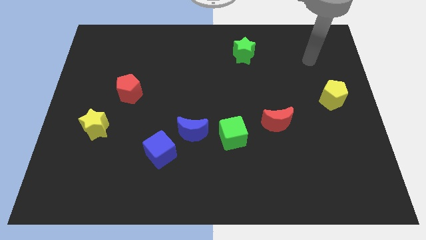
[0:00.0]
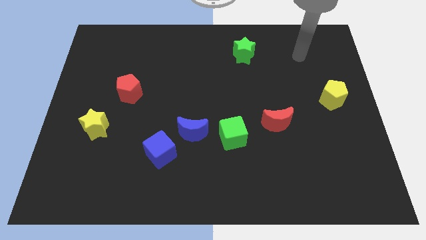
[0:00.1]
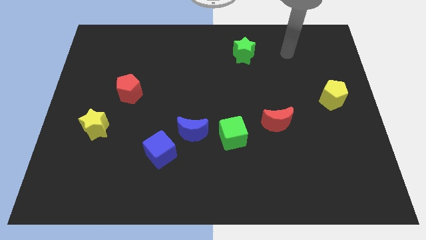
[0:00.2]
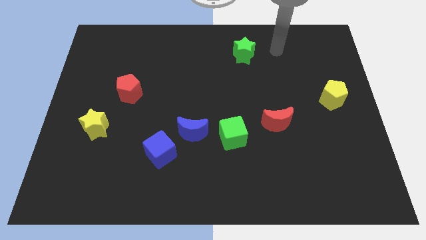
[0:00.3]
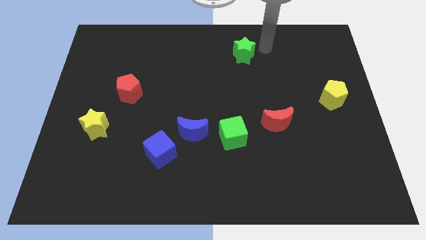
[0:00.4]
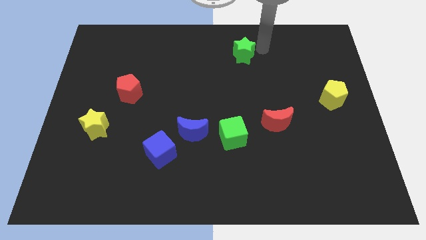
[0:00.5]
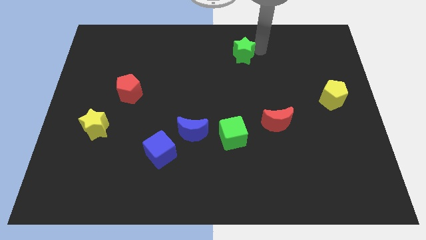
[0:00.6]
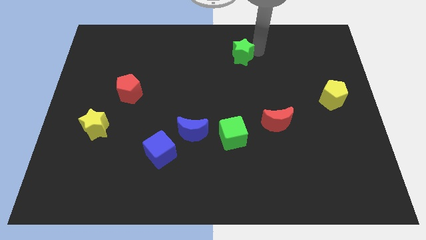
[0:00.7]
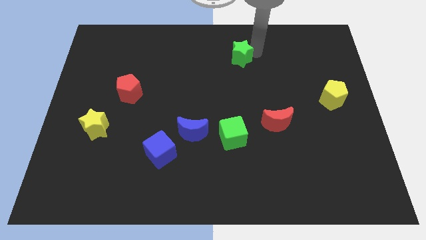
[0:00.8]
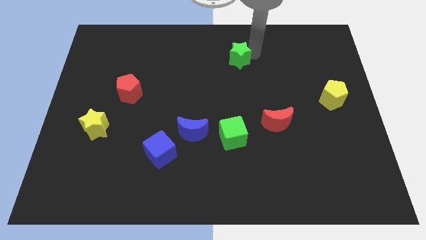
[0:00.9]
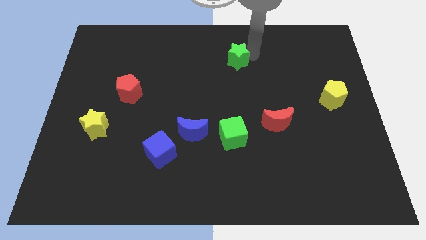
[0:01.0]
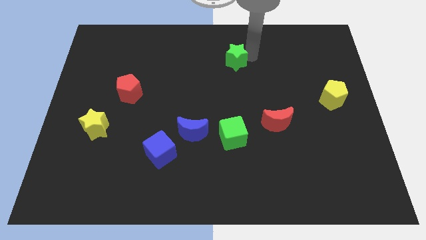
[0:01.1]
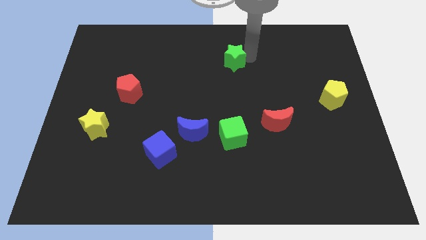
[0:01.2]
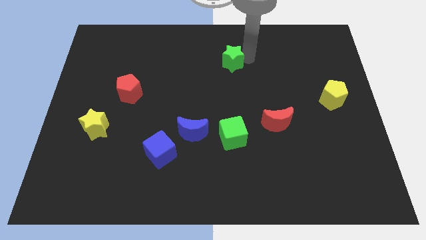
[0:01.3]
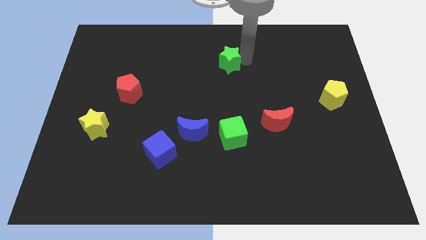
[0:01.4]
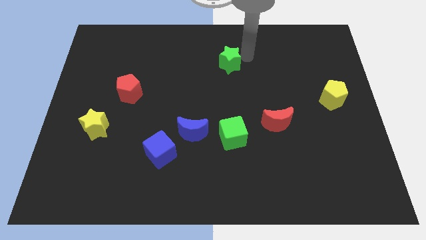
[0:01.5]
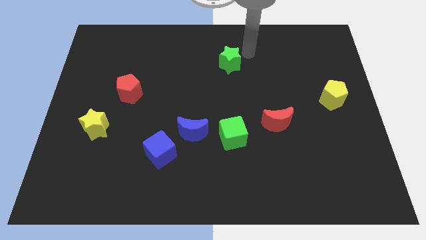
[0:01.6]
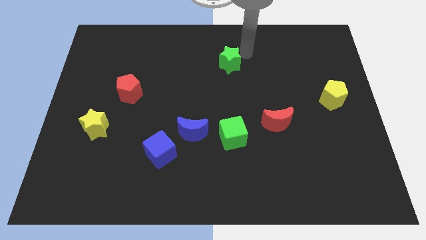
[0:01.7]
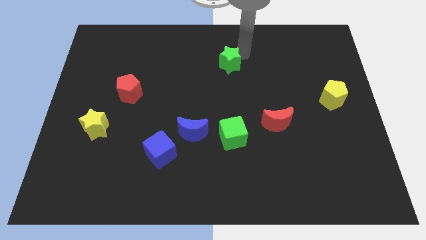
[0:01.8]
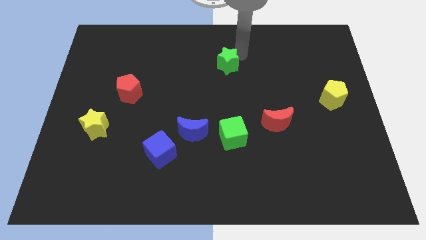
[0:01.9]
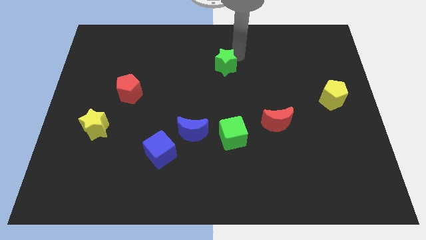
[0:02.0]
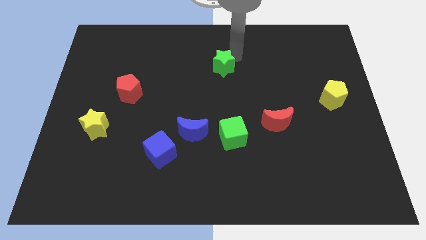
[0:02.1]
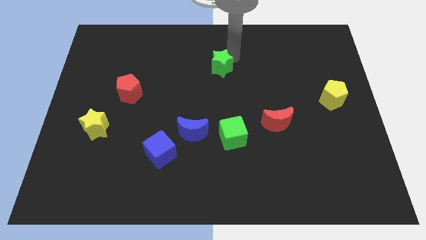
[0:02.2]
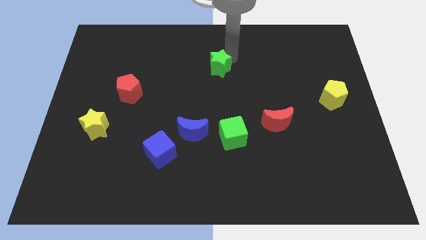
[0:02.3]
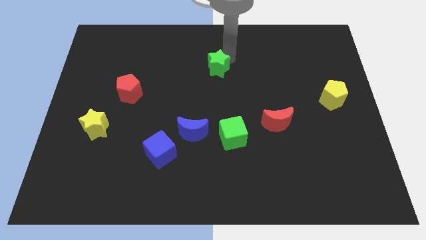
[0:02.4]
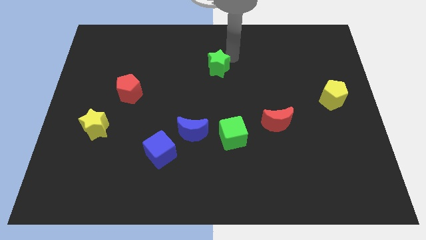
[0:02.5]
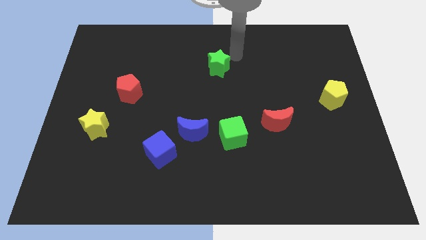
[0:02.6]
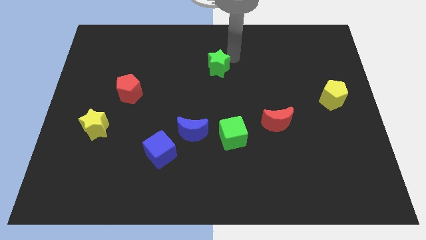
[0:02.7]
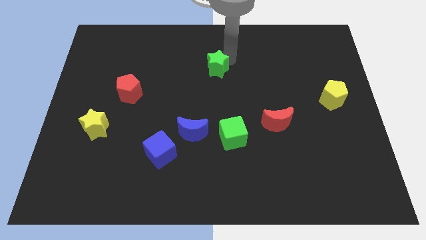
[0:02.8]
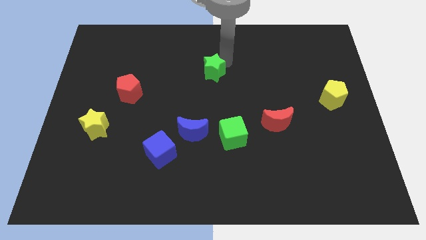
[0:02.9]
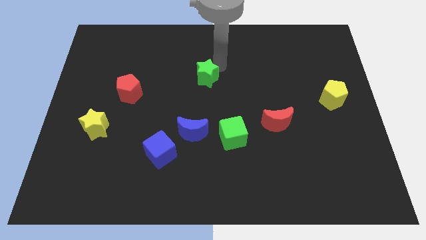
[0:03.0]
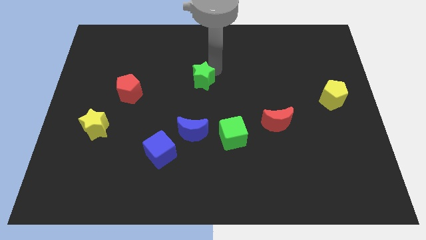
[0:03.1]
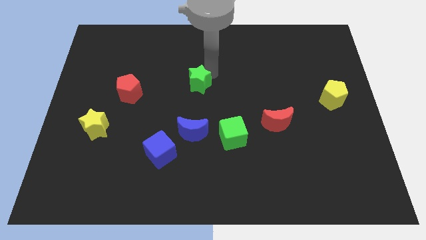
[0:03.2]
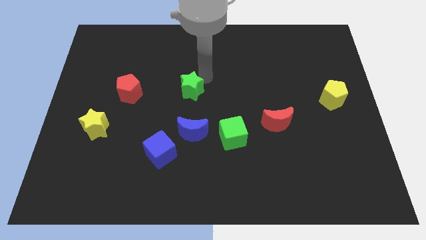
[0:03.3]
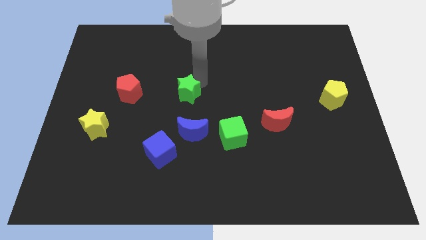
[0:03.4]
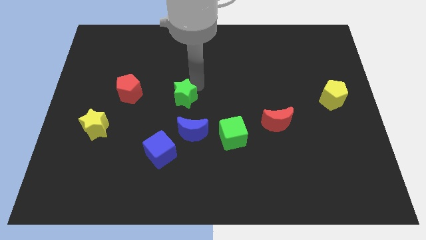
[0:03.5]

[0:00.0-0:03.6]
slide the green star diagonally downwards and to the left

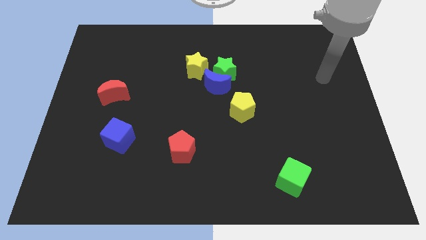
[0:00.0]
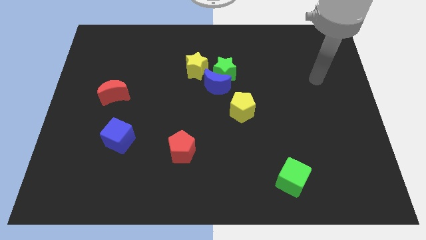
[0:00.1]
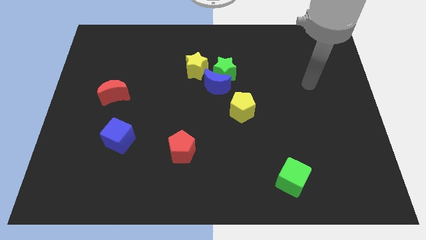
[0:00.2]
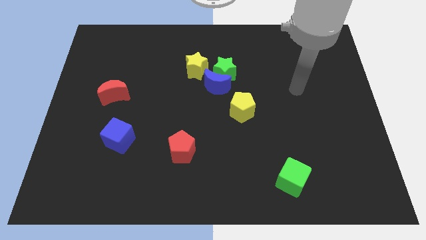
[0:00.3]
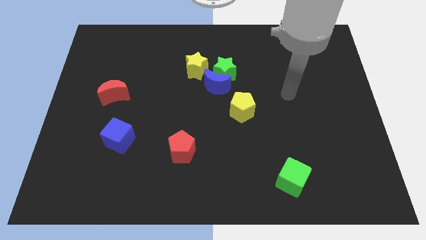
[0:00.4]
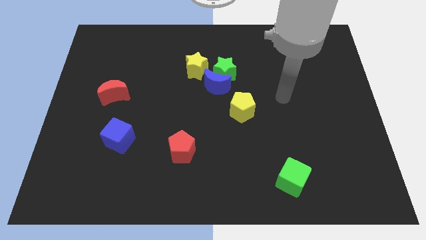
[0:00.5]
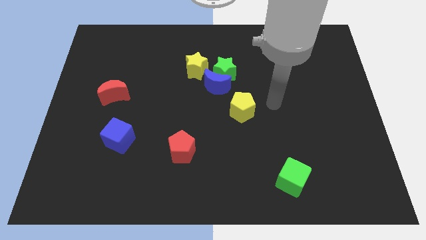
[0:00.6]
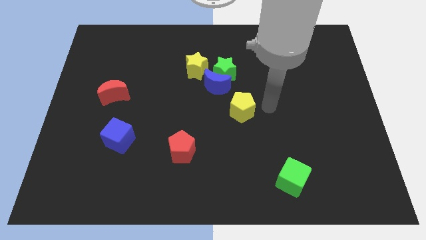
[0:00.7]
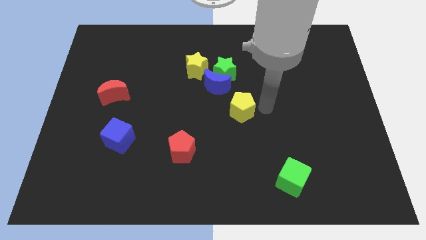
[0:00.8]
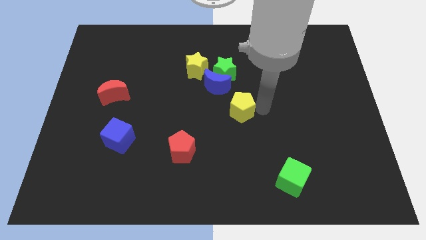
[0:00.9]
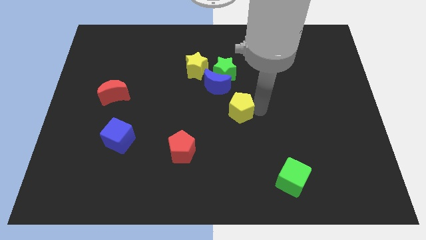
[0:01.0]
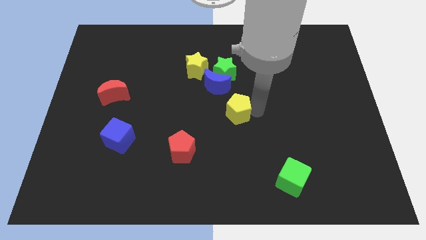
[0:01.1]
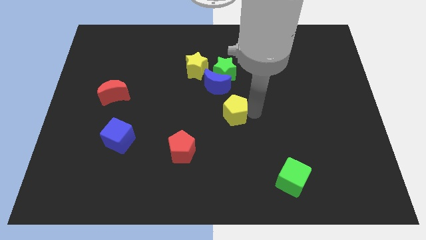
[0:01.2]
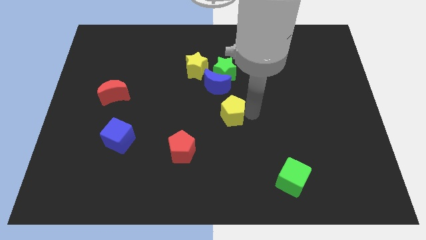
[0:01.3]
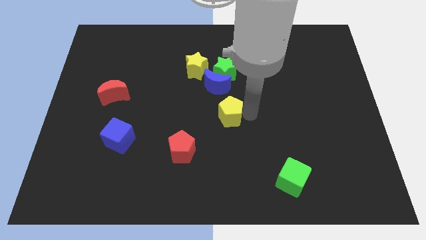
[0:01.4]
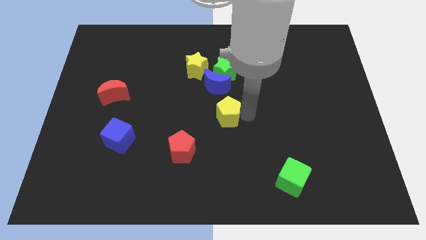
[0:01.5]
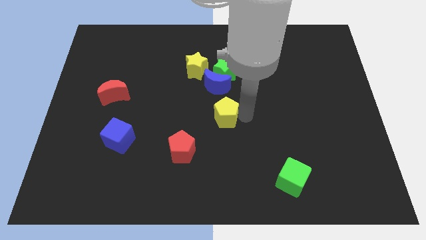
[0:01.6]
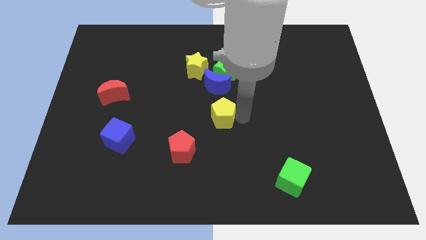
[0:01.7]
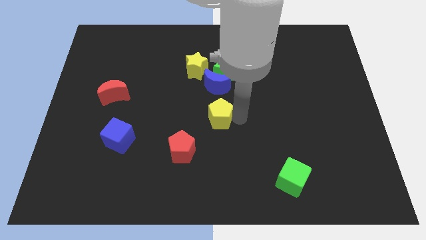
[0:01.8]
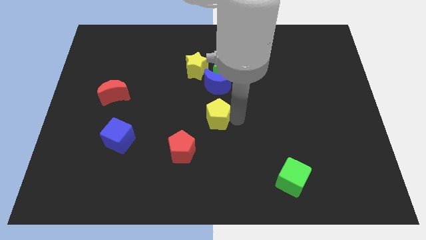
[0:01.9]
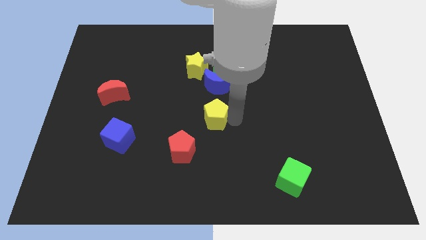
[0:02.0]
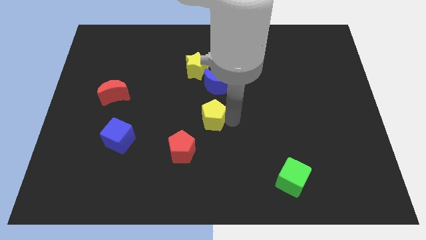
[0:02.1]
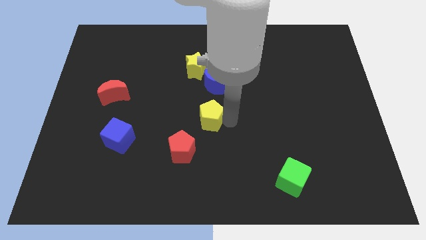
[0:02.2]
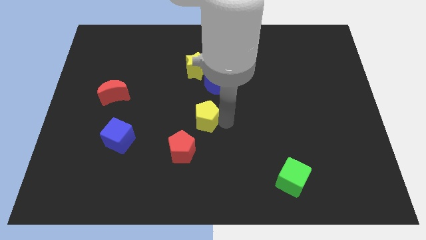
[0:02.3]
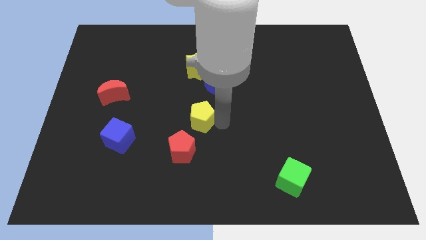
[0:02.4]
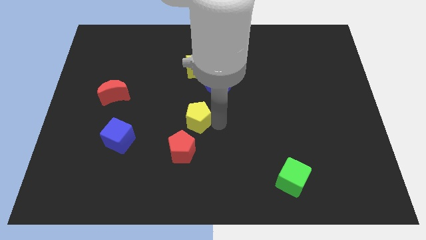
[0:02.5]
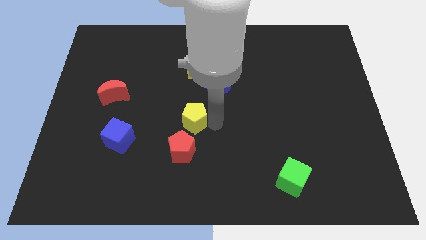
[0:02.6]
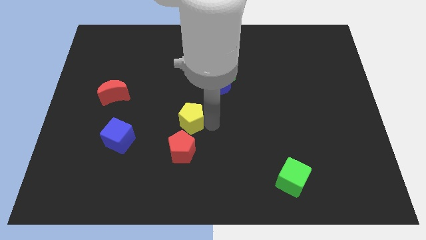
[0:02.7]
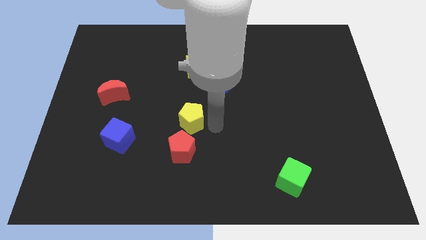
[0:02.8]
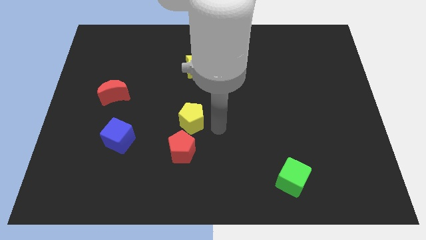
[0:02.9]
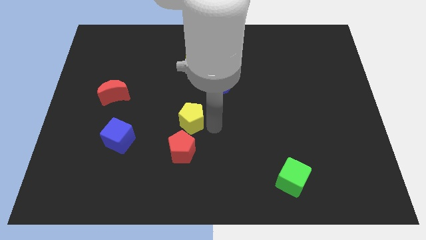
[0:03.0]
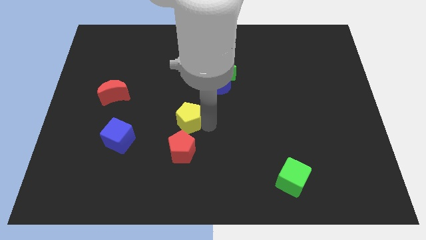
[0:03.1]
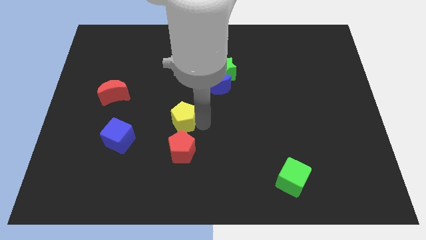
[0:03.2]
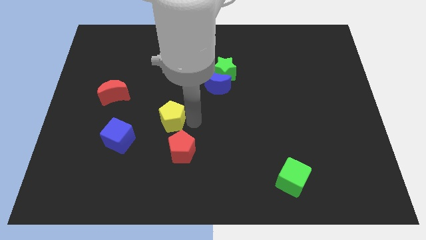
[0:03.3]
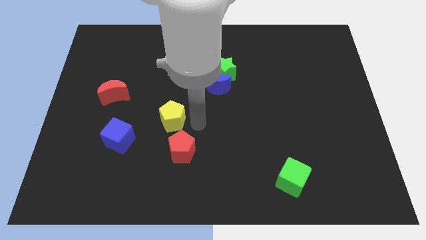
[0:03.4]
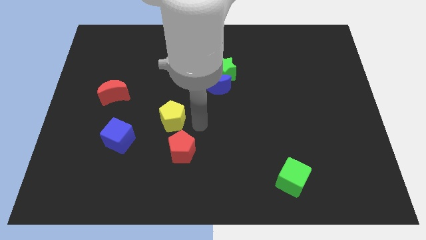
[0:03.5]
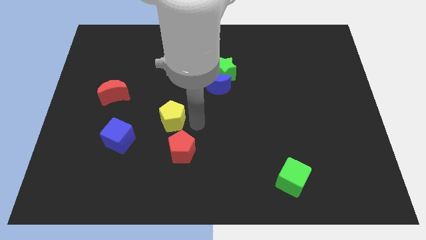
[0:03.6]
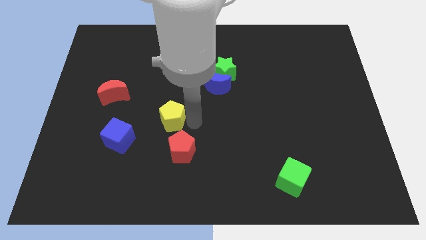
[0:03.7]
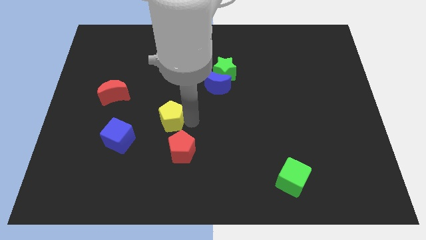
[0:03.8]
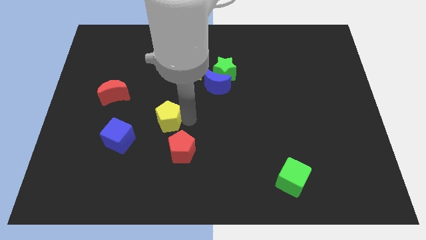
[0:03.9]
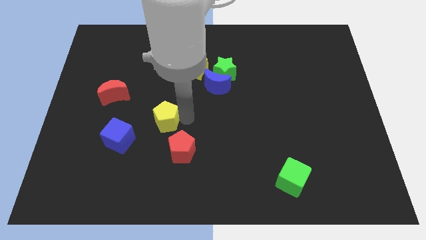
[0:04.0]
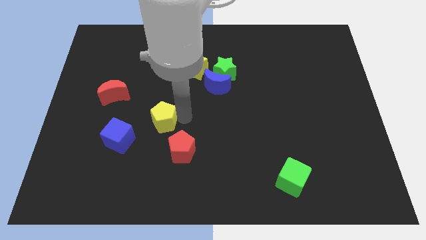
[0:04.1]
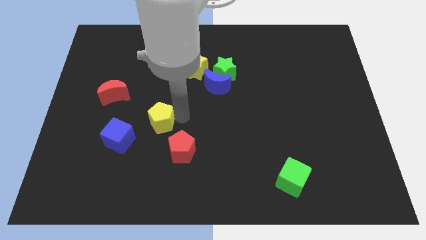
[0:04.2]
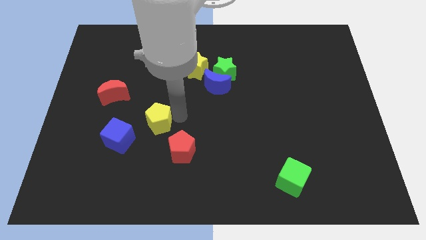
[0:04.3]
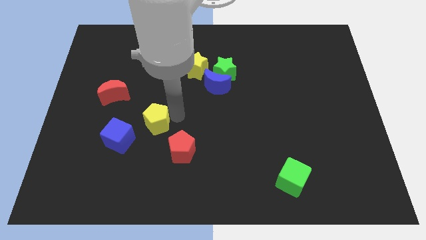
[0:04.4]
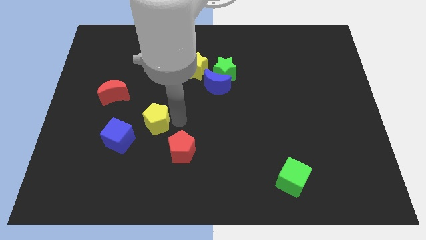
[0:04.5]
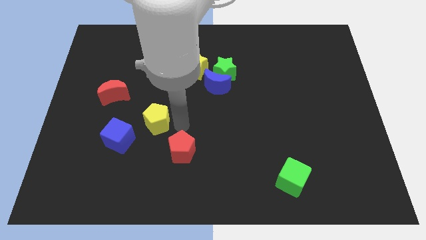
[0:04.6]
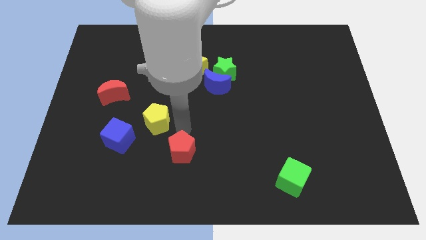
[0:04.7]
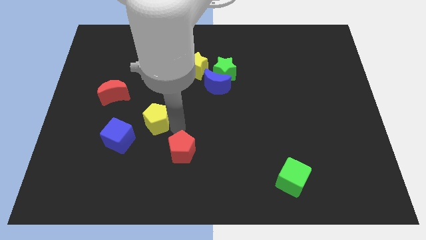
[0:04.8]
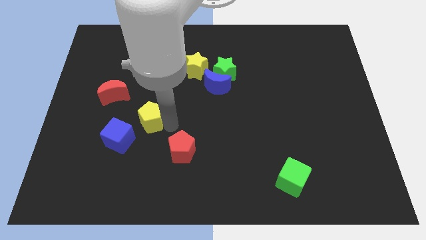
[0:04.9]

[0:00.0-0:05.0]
slide the yellow pentagon to the left
